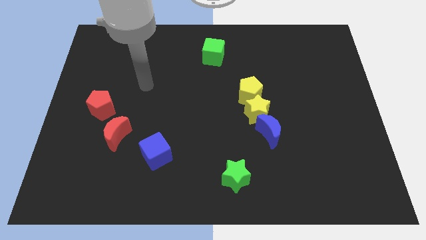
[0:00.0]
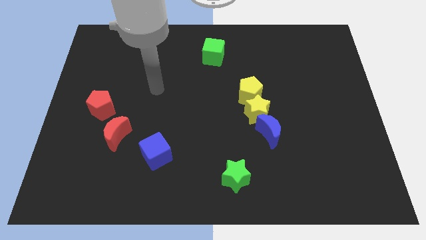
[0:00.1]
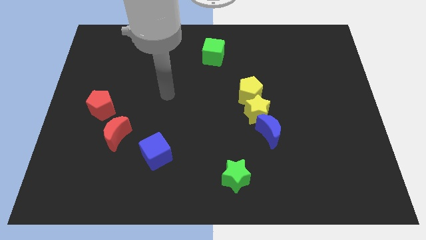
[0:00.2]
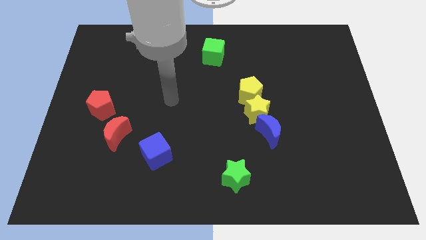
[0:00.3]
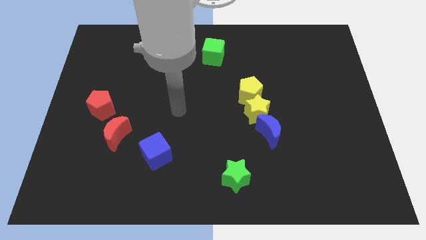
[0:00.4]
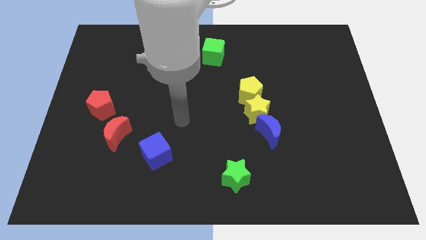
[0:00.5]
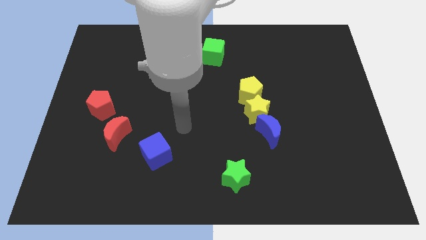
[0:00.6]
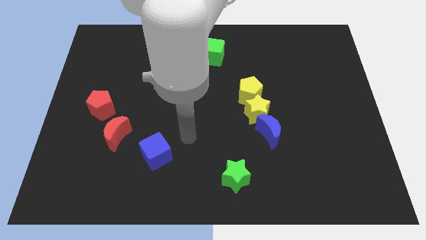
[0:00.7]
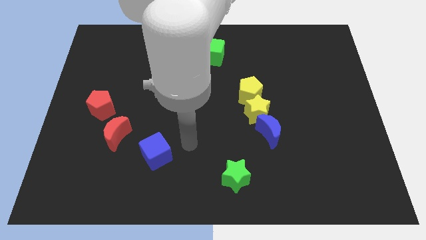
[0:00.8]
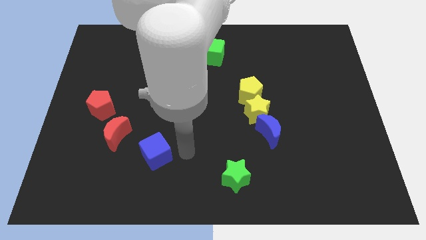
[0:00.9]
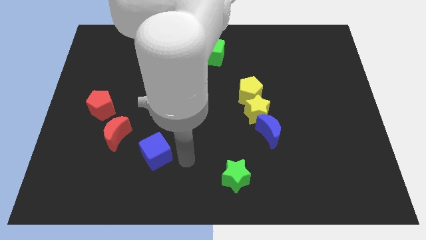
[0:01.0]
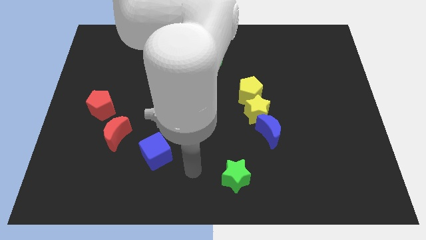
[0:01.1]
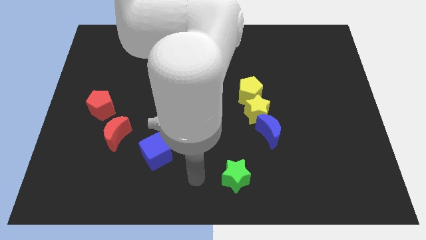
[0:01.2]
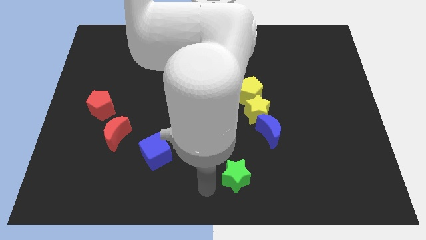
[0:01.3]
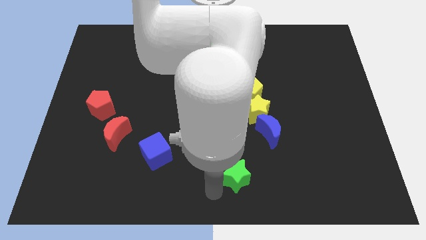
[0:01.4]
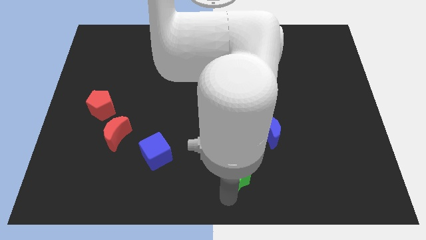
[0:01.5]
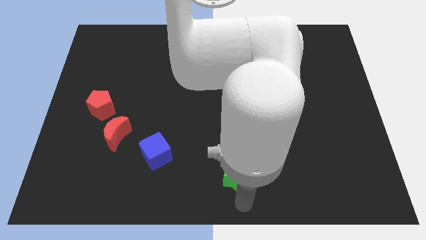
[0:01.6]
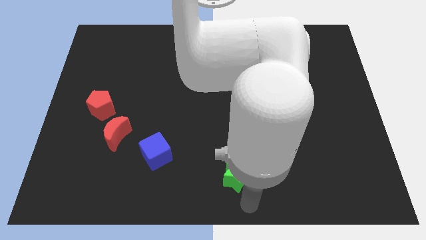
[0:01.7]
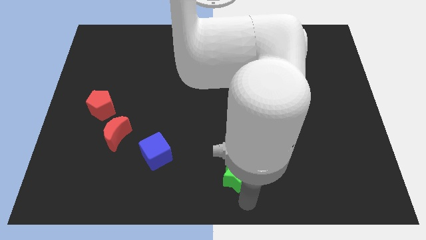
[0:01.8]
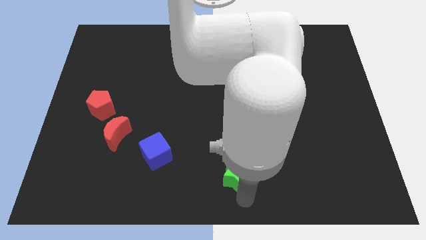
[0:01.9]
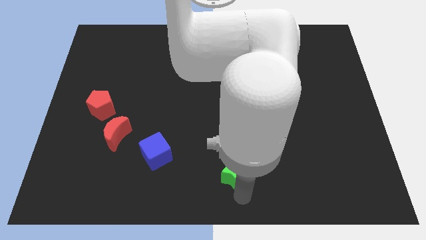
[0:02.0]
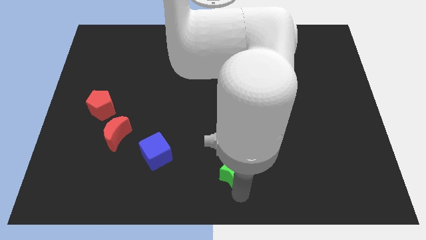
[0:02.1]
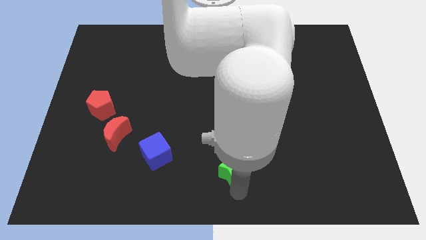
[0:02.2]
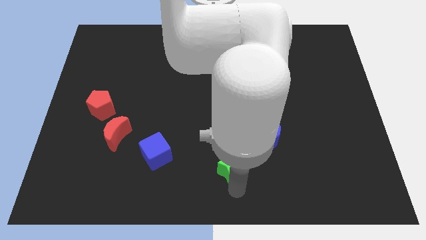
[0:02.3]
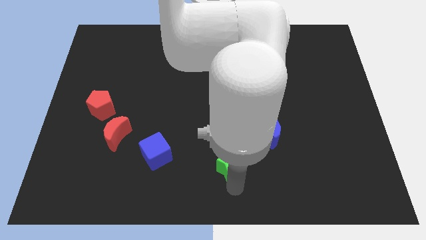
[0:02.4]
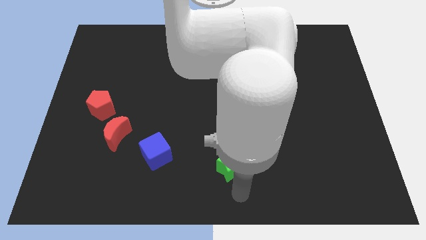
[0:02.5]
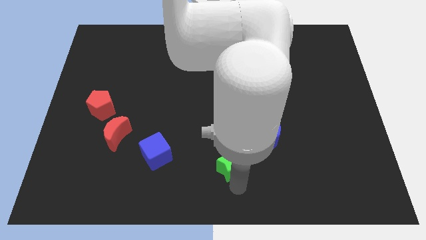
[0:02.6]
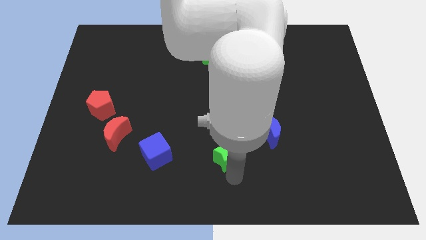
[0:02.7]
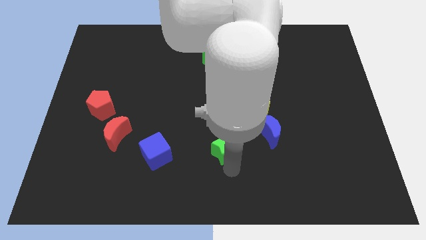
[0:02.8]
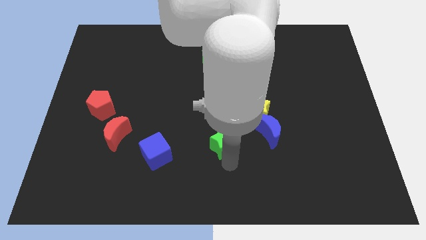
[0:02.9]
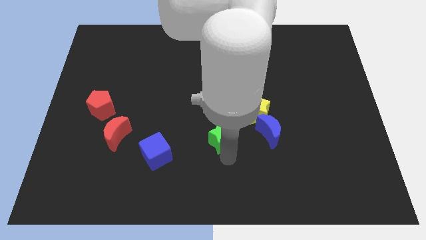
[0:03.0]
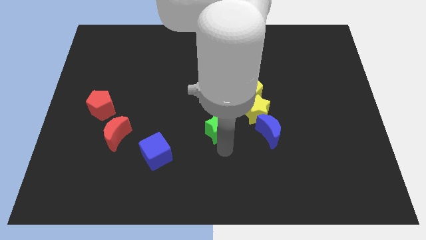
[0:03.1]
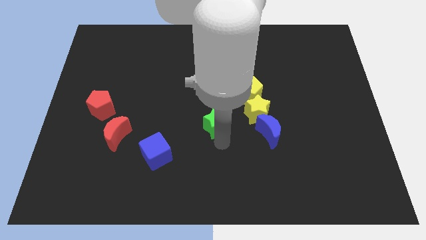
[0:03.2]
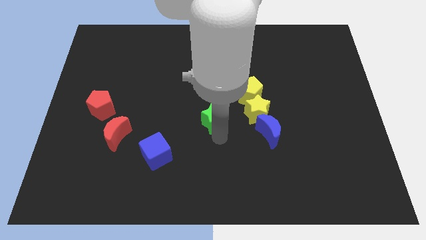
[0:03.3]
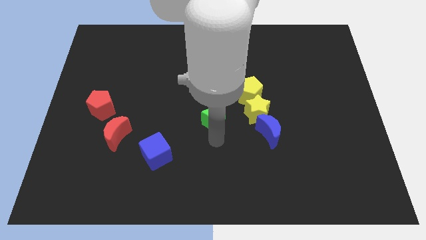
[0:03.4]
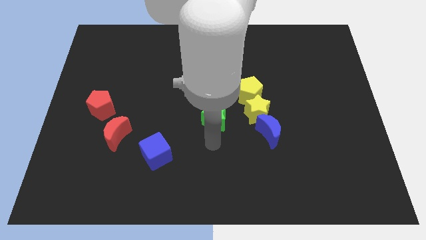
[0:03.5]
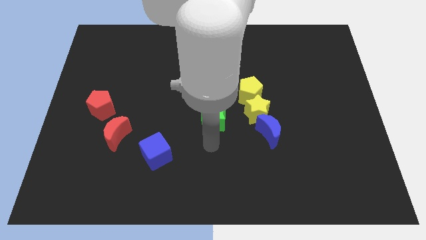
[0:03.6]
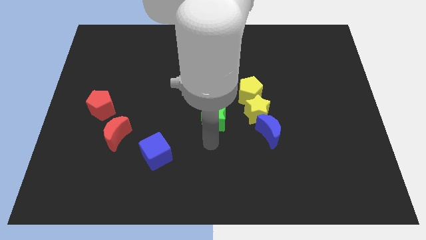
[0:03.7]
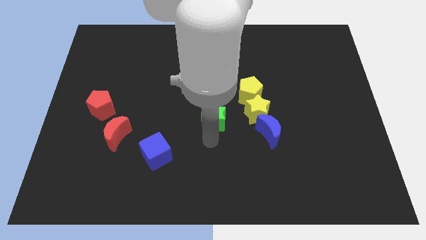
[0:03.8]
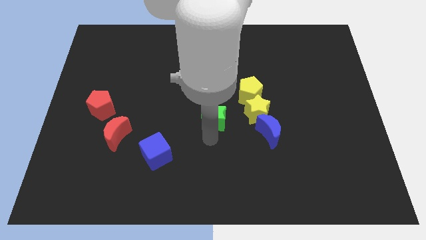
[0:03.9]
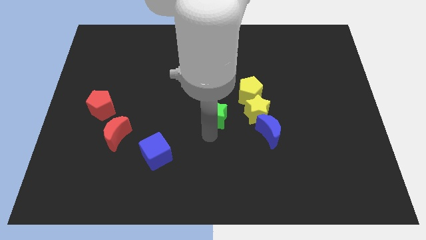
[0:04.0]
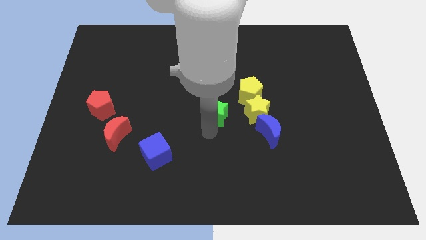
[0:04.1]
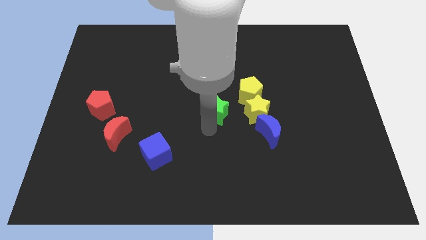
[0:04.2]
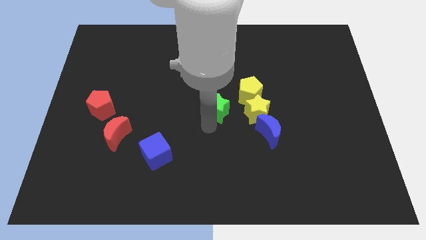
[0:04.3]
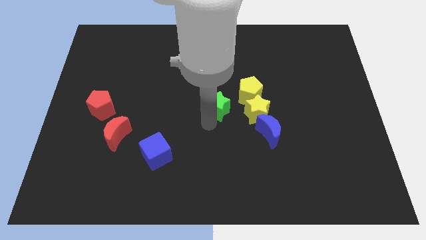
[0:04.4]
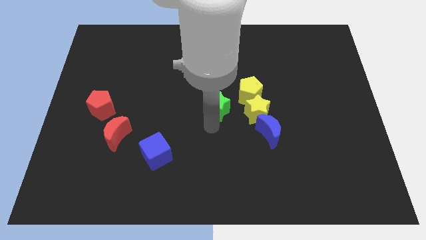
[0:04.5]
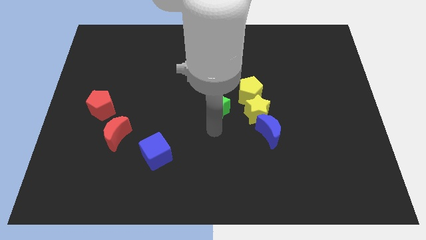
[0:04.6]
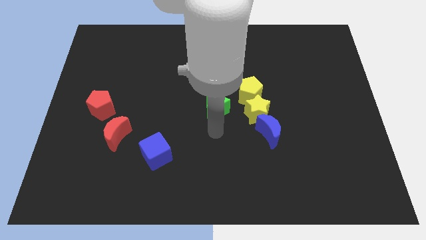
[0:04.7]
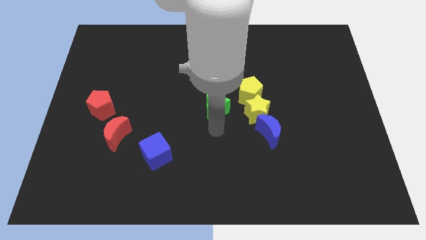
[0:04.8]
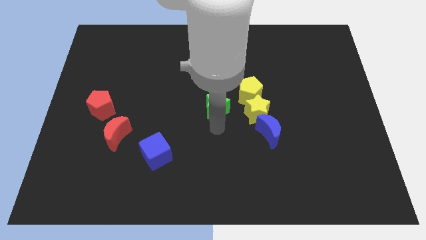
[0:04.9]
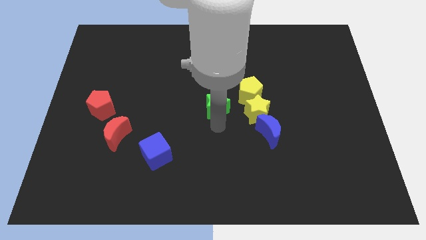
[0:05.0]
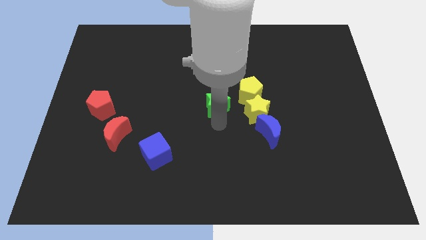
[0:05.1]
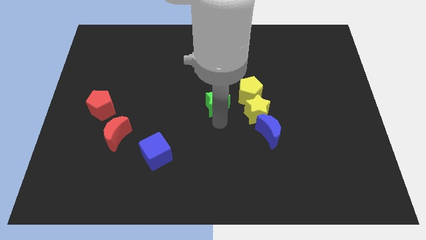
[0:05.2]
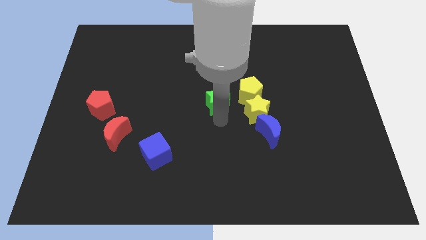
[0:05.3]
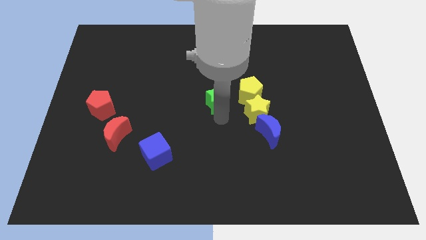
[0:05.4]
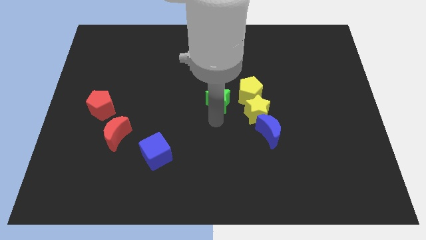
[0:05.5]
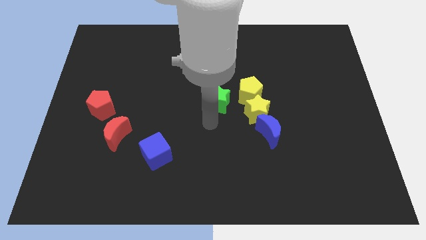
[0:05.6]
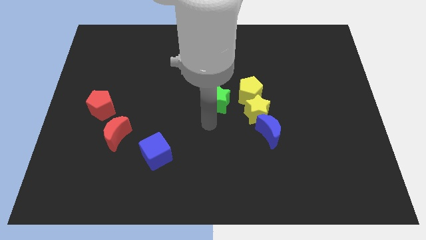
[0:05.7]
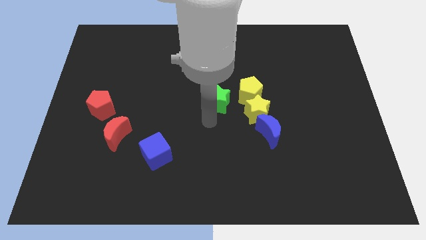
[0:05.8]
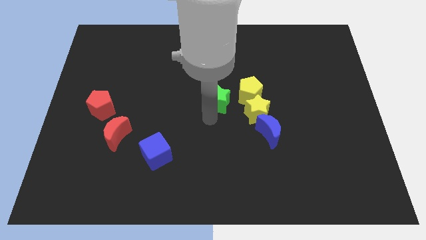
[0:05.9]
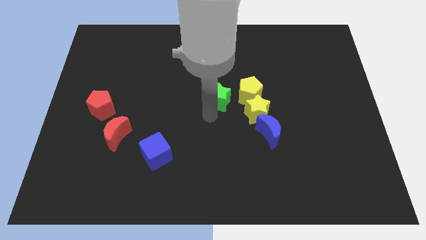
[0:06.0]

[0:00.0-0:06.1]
slide the green star upwards

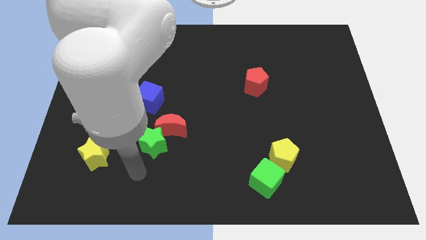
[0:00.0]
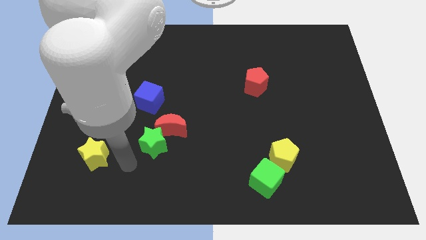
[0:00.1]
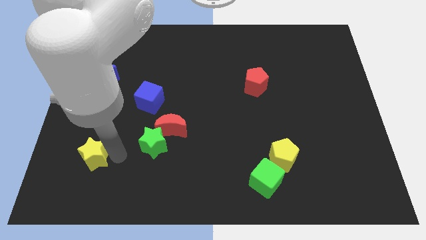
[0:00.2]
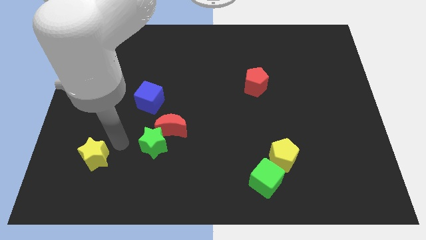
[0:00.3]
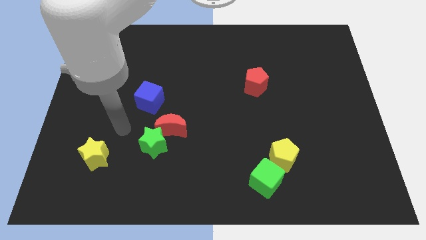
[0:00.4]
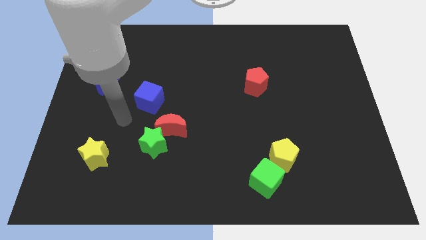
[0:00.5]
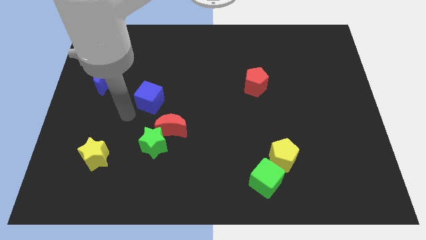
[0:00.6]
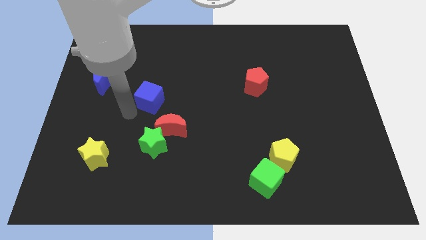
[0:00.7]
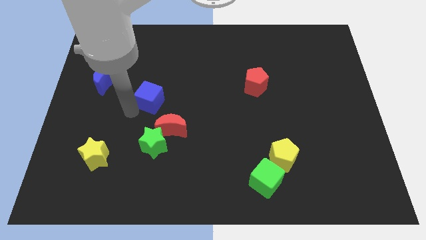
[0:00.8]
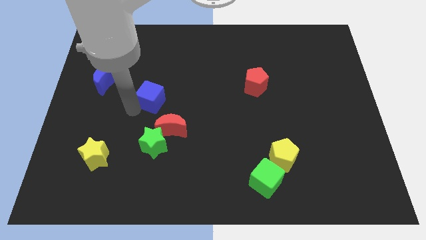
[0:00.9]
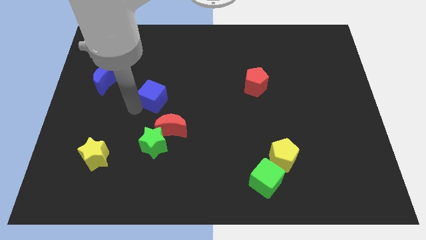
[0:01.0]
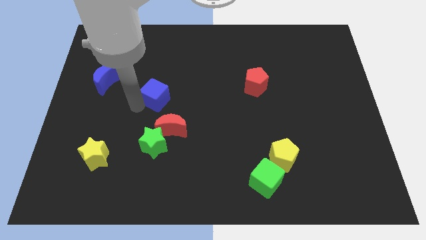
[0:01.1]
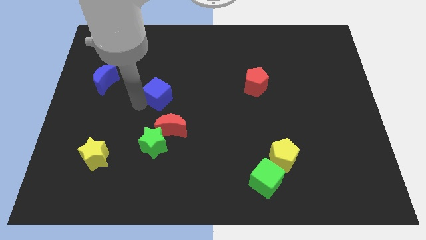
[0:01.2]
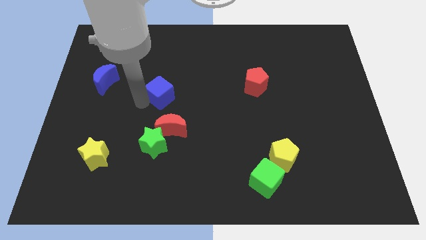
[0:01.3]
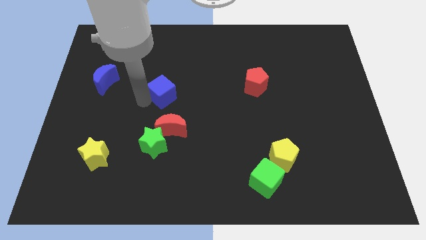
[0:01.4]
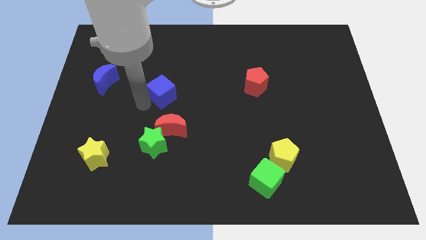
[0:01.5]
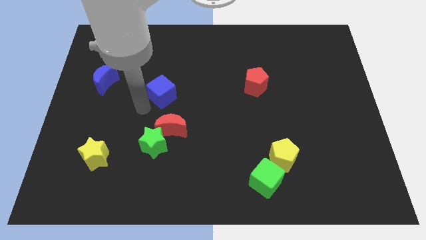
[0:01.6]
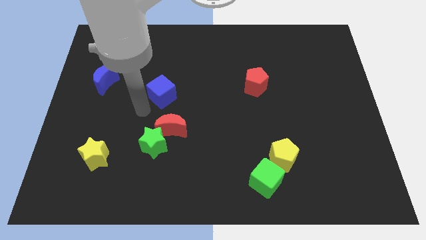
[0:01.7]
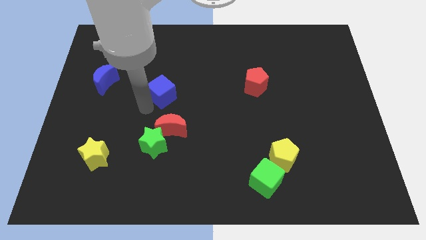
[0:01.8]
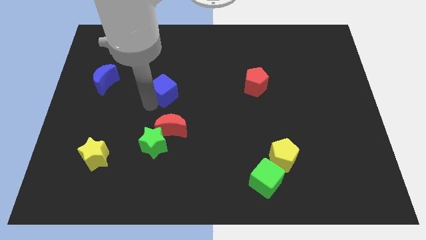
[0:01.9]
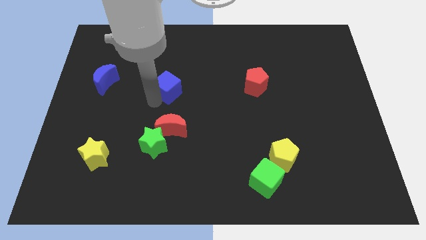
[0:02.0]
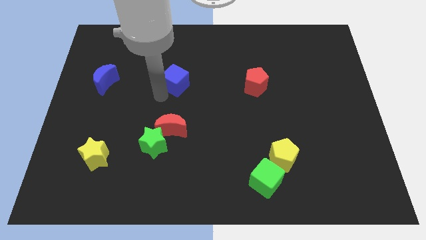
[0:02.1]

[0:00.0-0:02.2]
slightly move the blue cube upwards and then to the right
